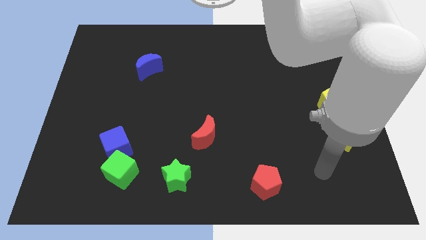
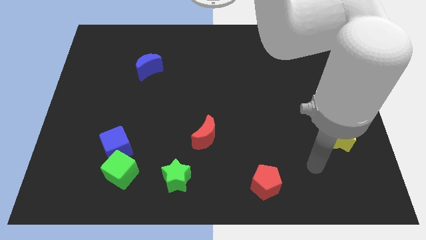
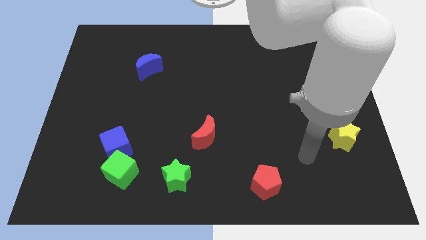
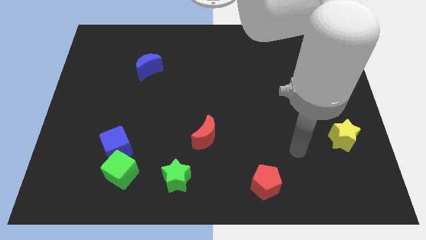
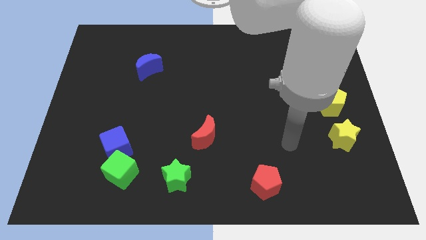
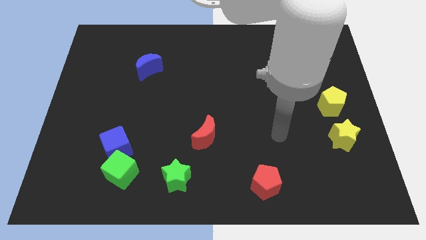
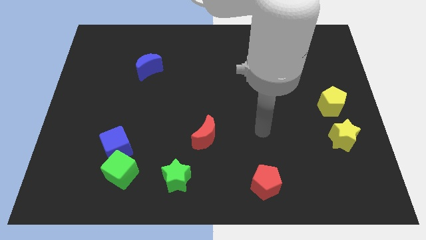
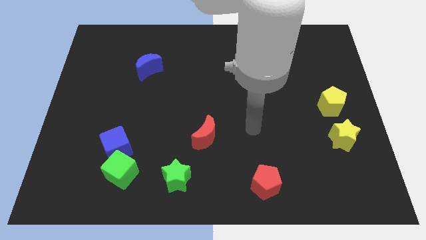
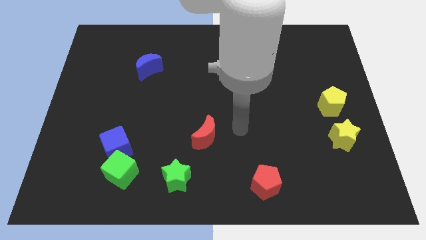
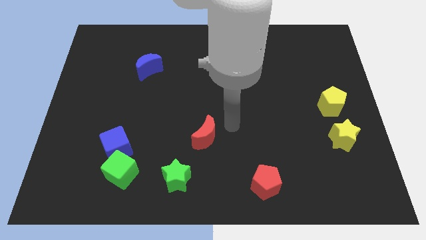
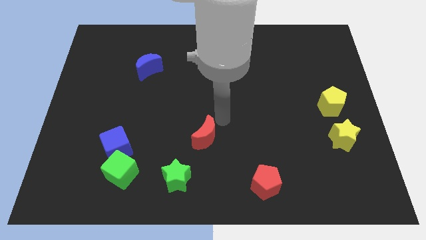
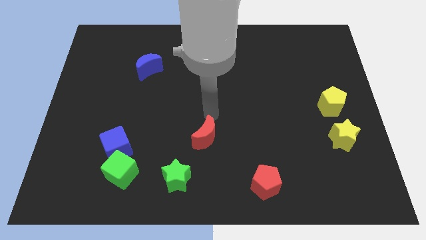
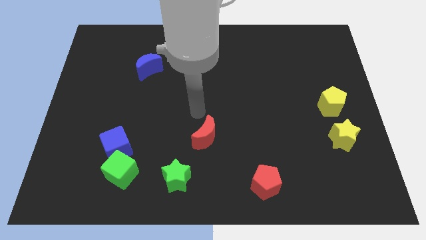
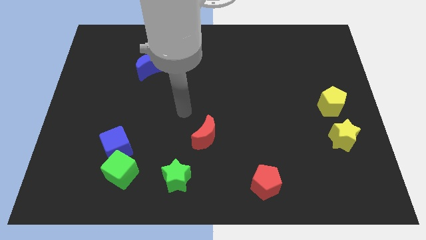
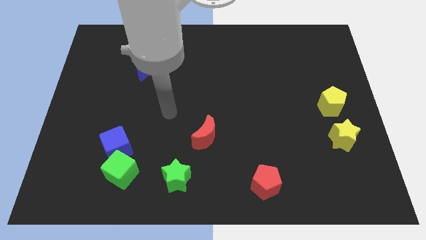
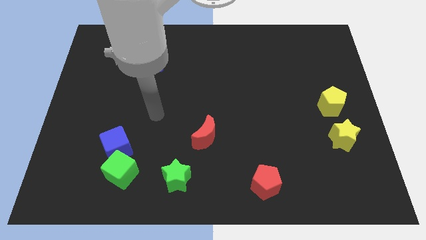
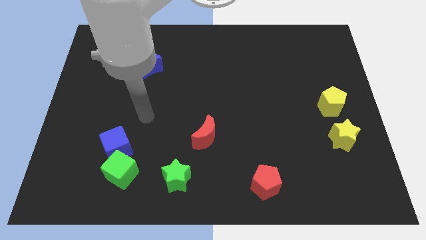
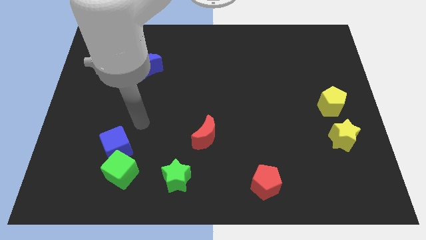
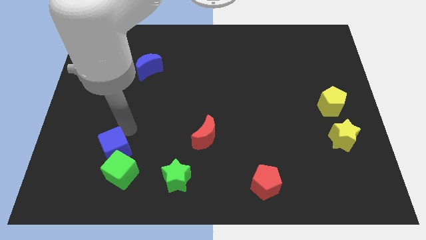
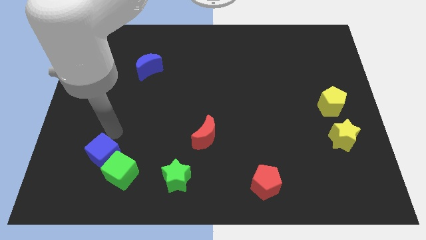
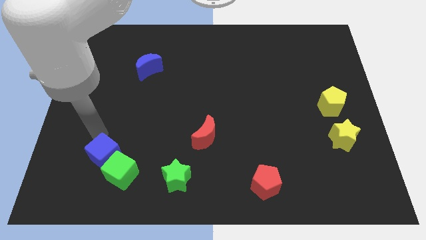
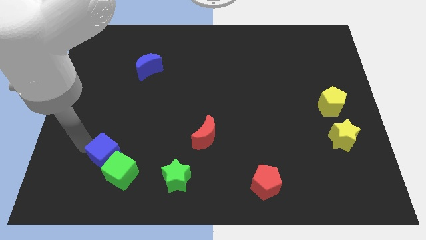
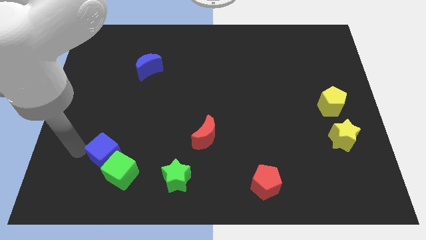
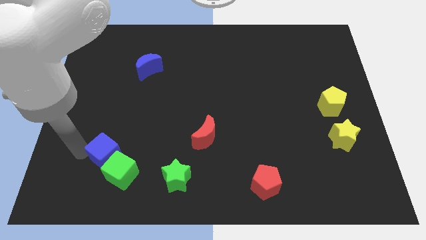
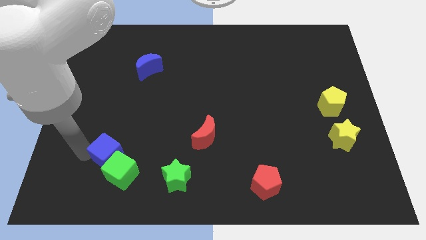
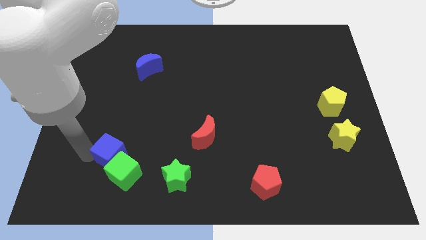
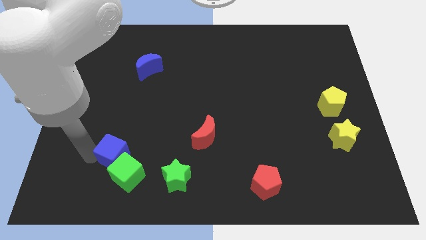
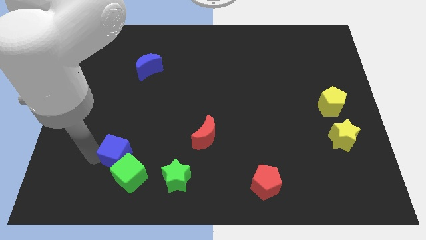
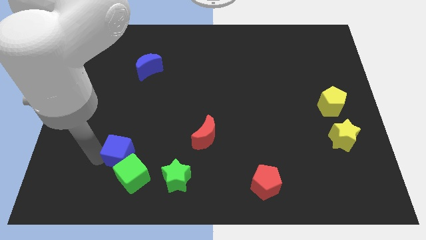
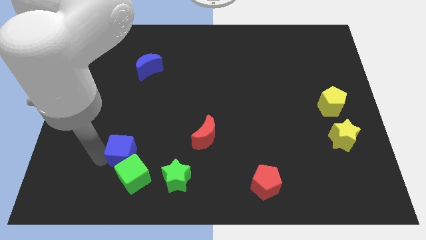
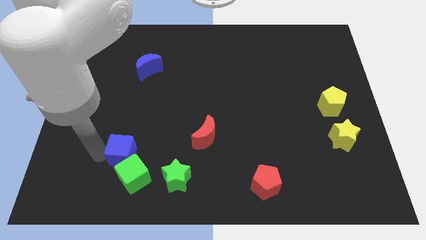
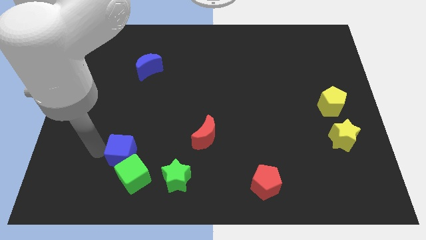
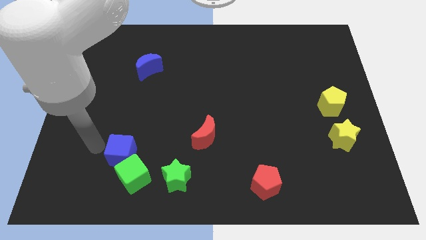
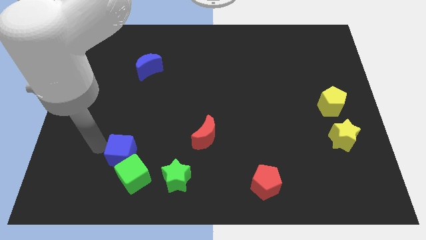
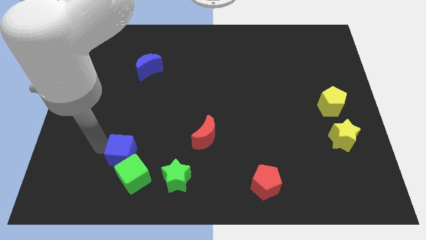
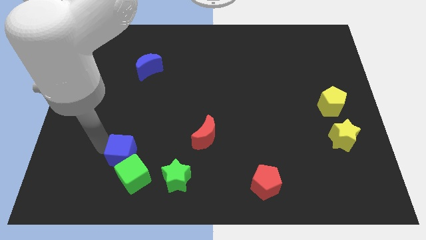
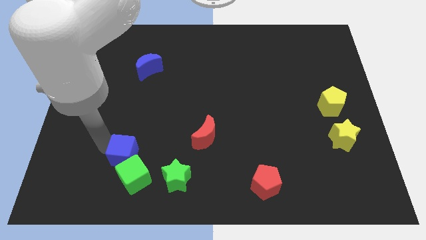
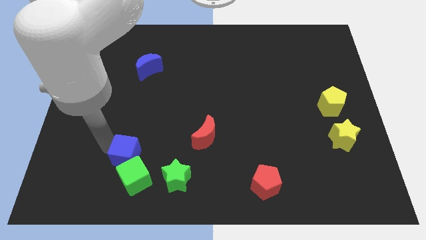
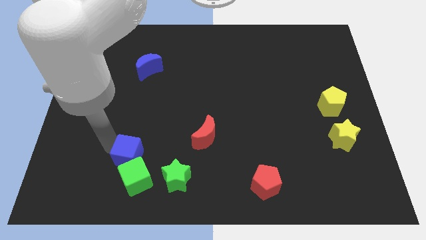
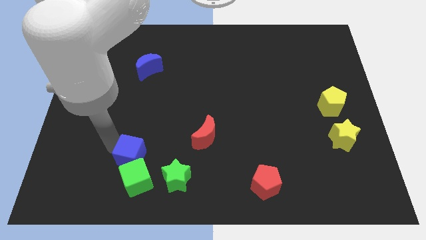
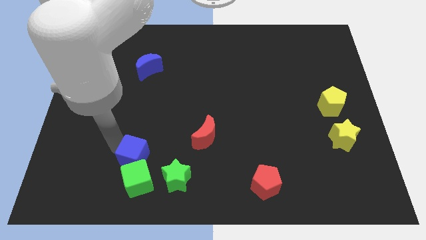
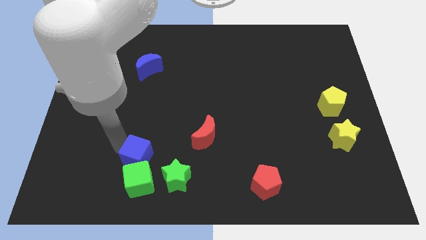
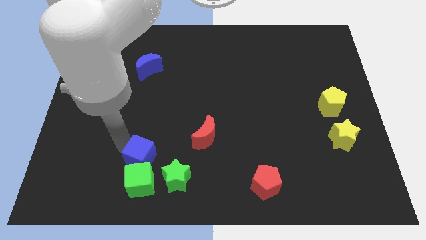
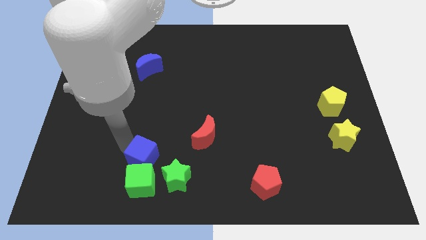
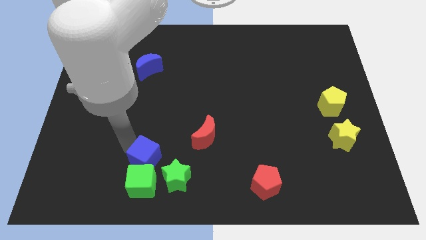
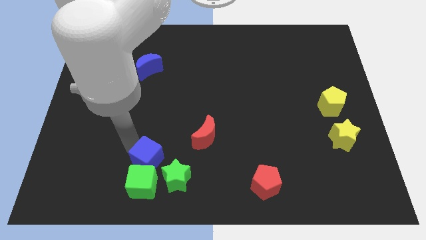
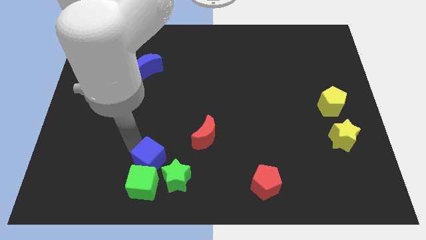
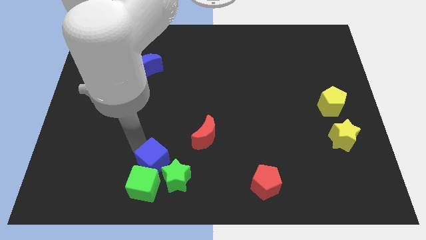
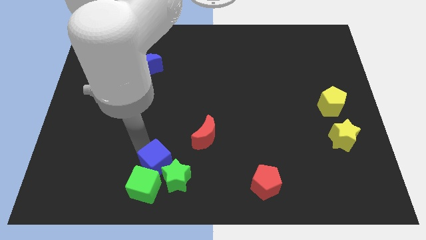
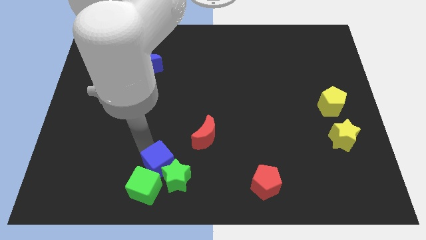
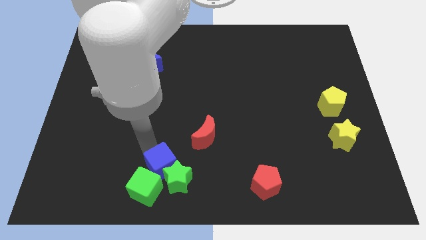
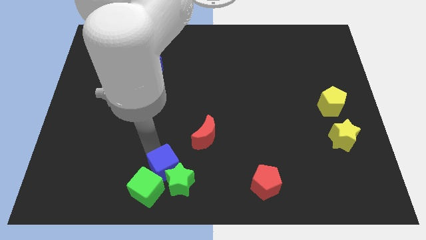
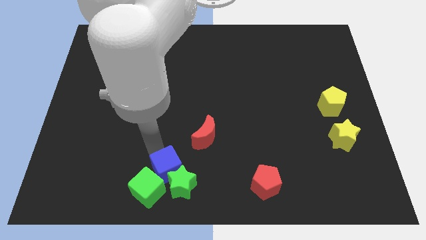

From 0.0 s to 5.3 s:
push the blue cube to the bottom side

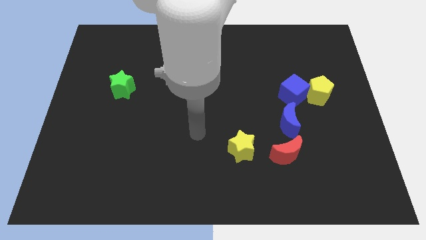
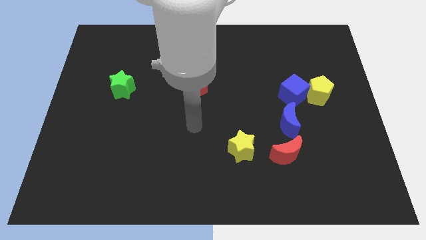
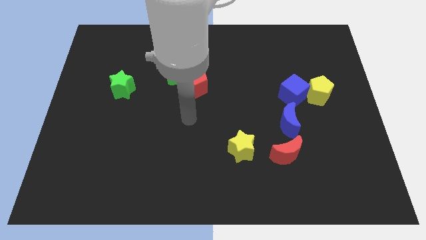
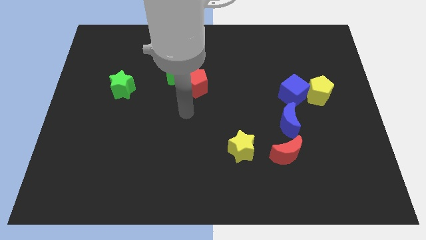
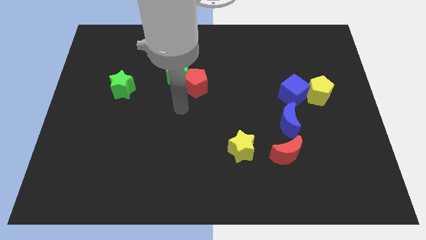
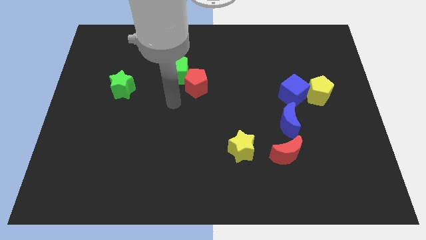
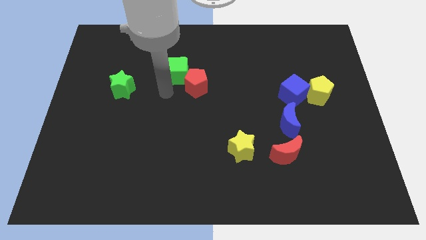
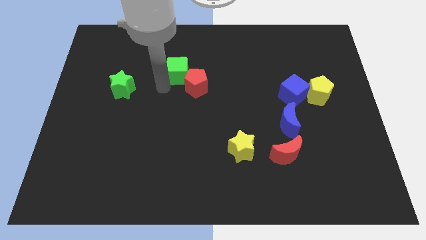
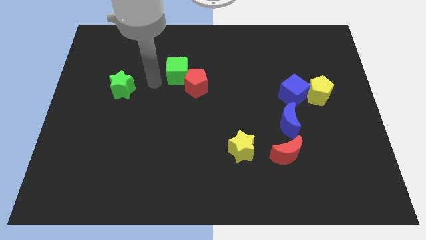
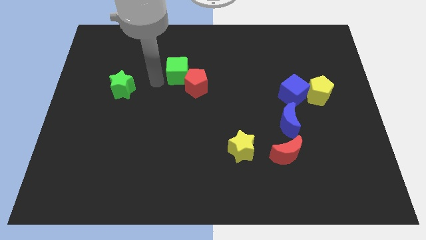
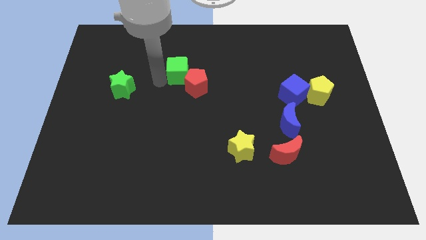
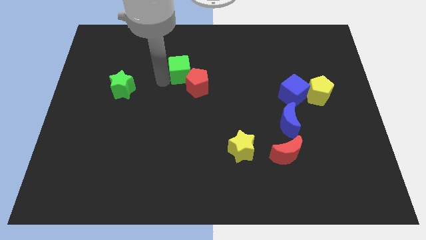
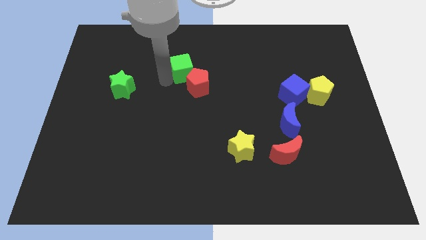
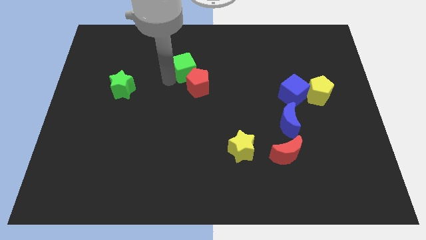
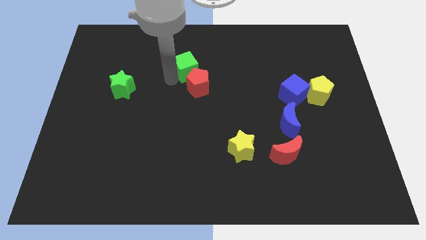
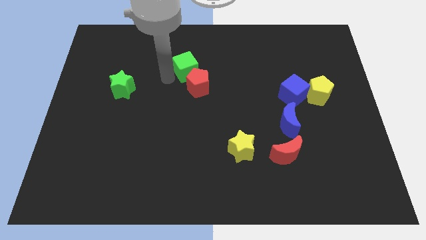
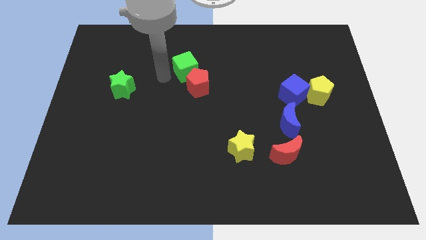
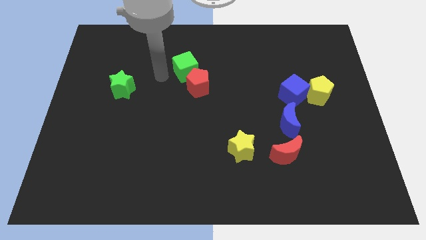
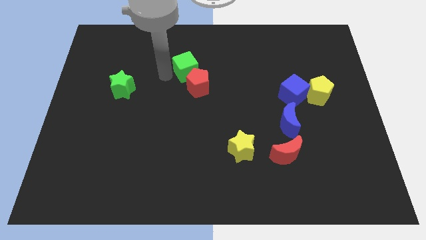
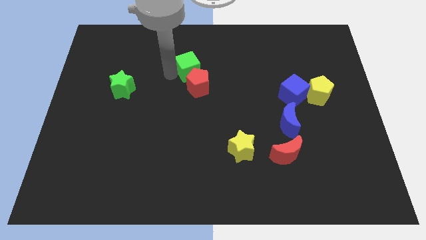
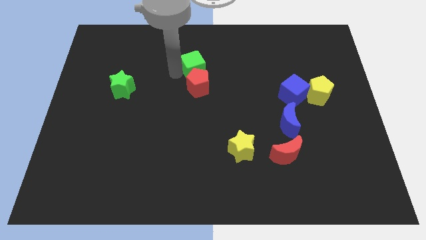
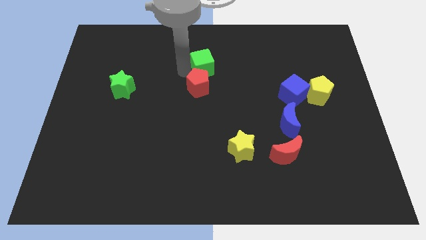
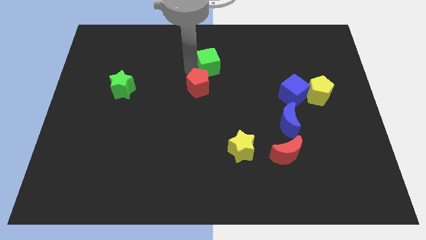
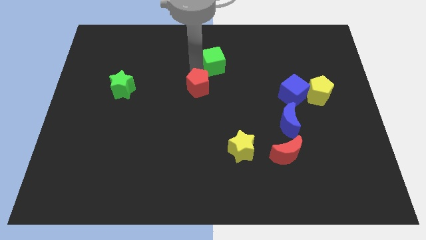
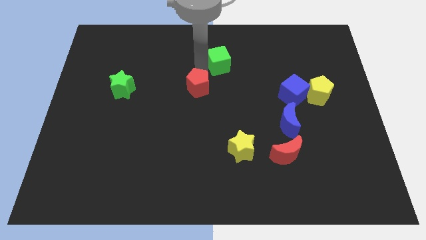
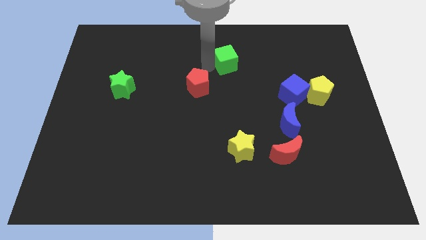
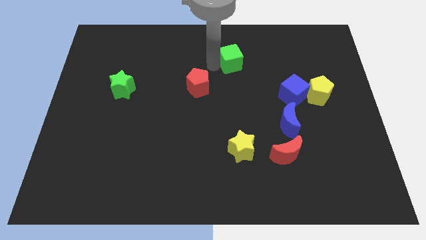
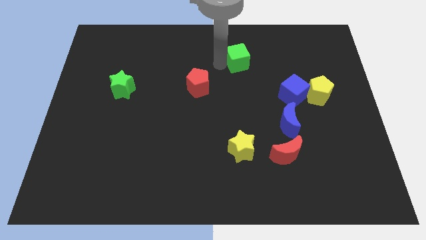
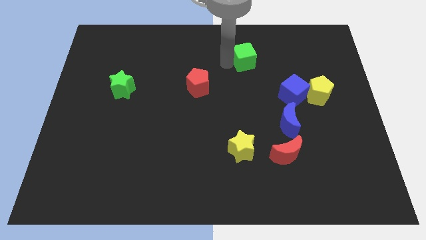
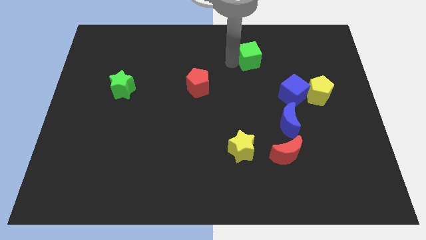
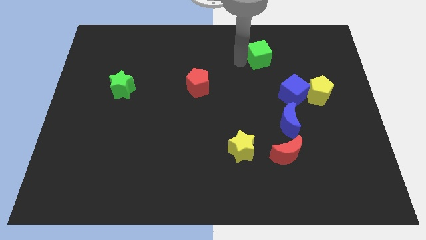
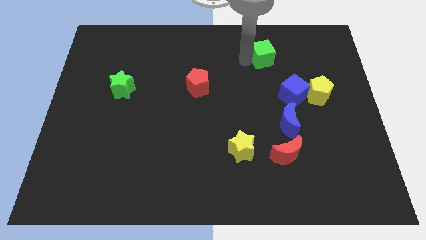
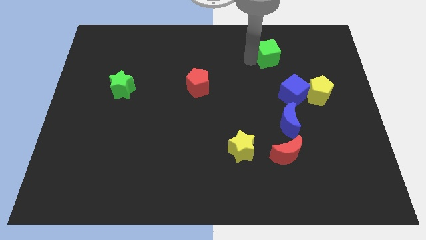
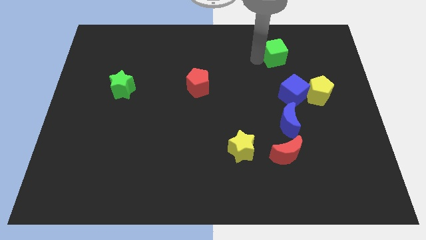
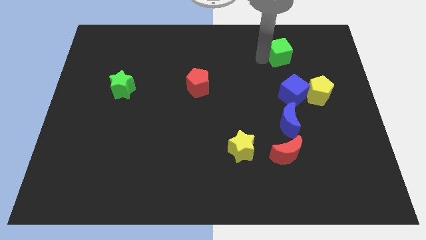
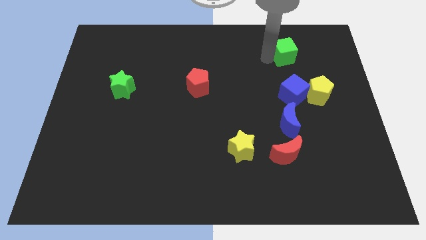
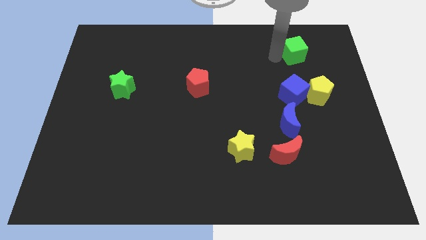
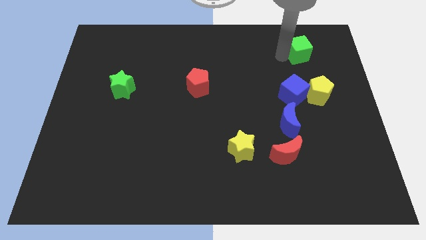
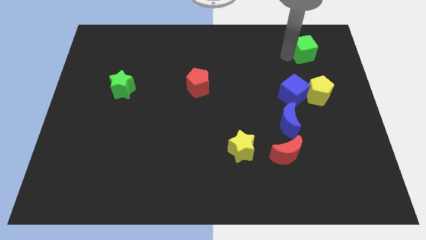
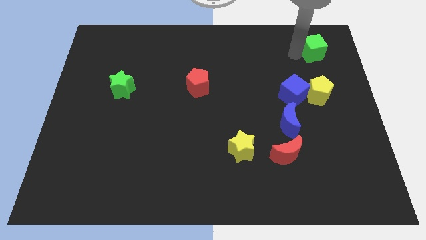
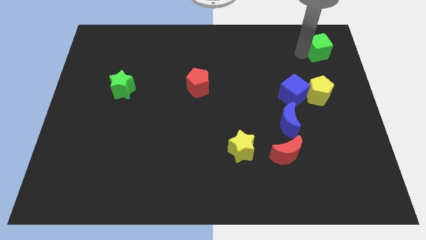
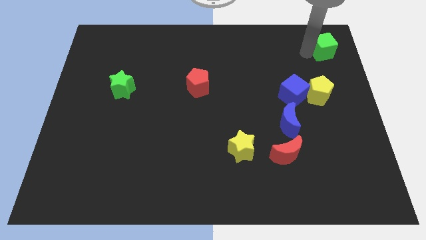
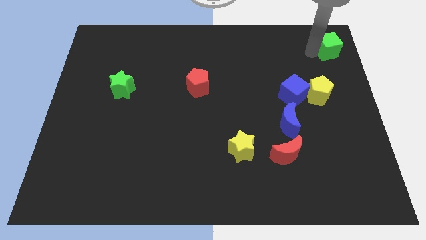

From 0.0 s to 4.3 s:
move the green cube to the top right corner
